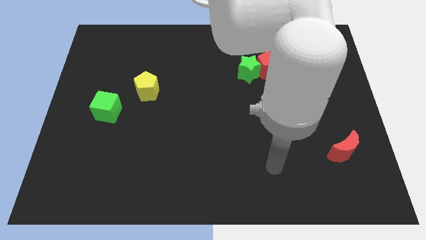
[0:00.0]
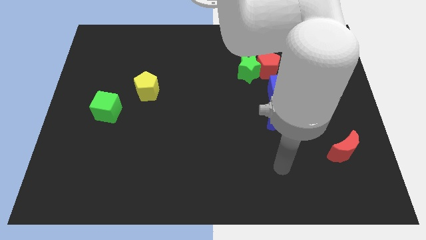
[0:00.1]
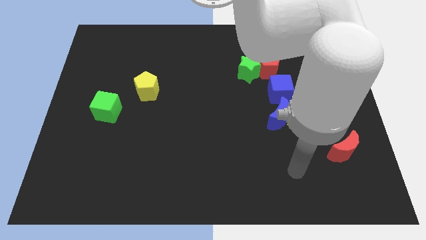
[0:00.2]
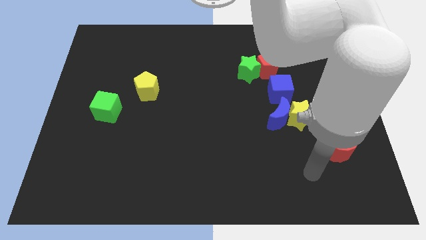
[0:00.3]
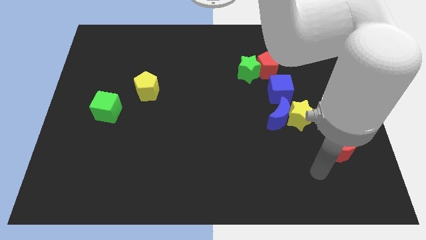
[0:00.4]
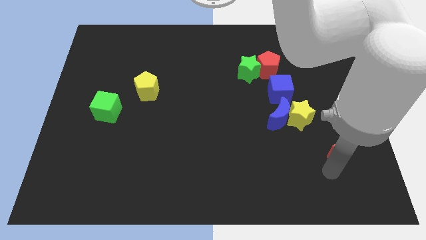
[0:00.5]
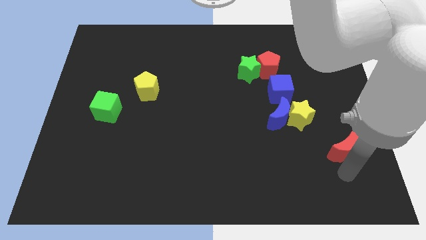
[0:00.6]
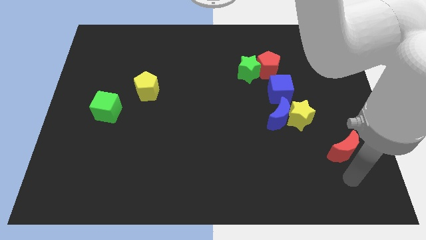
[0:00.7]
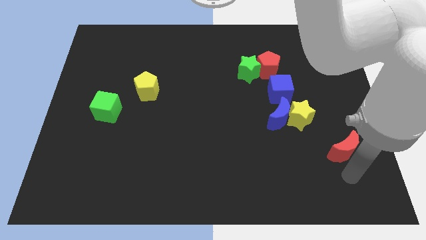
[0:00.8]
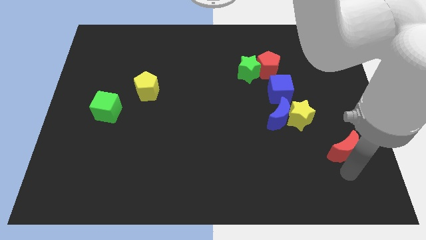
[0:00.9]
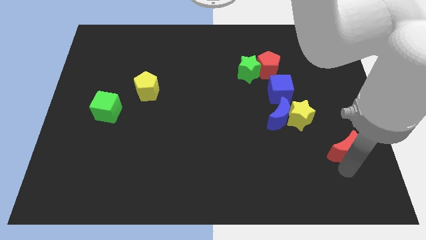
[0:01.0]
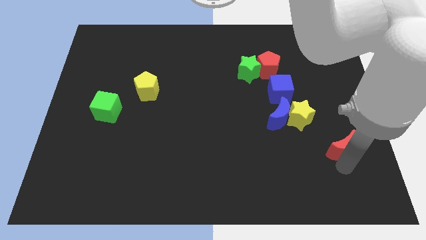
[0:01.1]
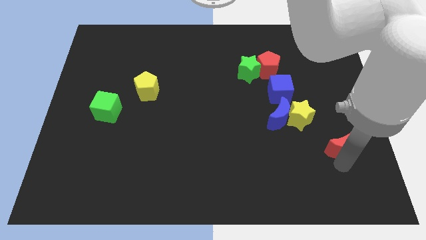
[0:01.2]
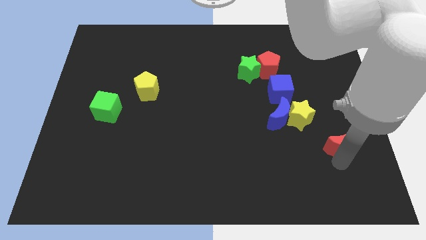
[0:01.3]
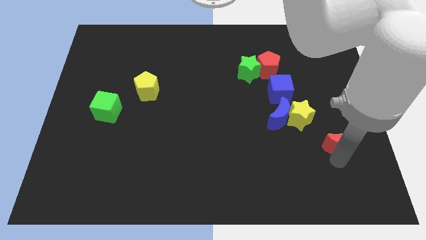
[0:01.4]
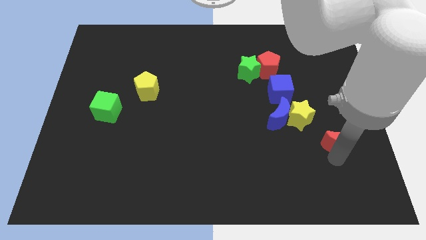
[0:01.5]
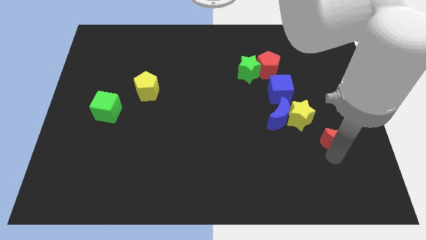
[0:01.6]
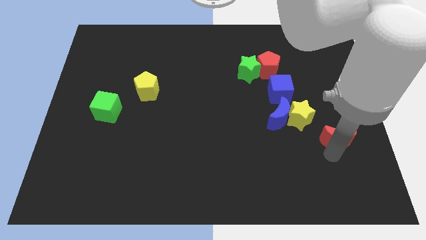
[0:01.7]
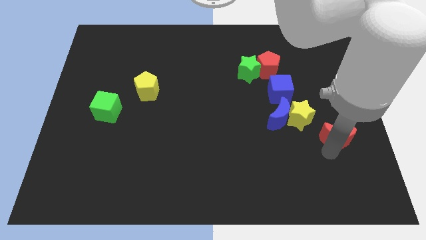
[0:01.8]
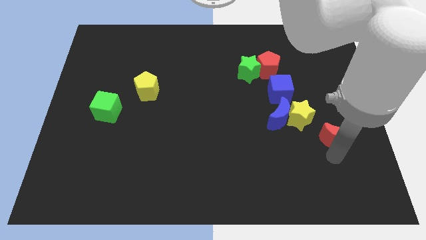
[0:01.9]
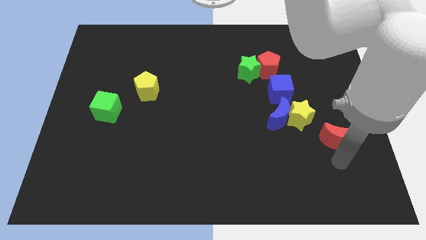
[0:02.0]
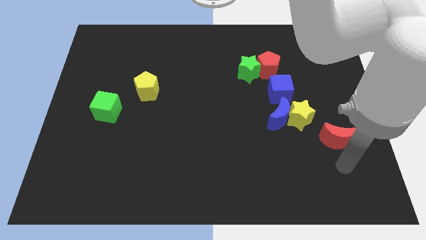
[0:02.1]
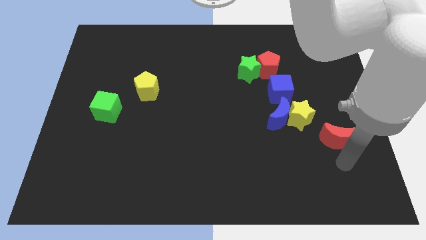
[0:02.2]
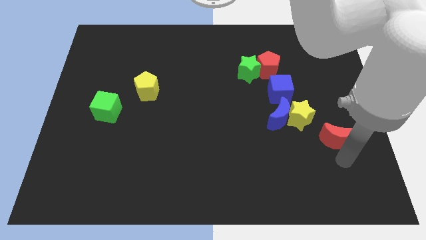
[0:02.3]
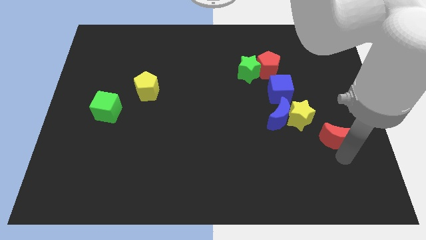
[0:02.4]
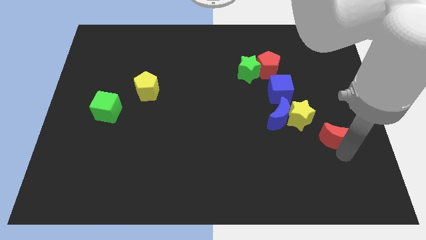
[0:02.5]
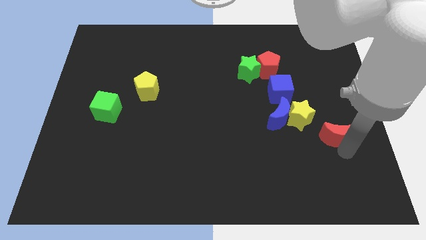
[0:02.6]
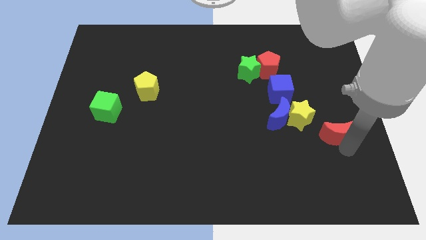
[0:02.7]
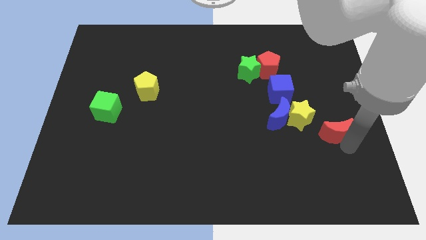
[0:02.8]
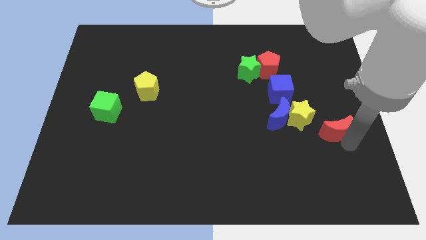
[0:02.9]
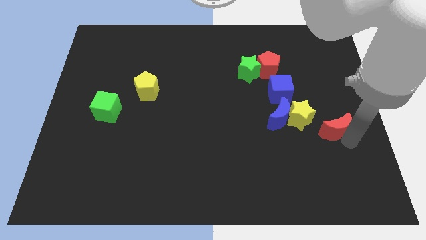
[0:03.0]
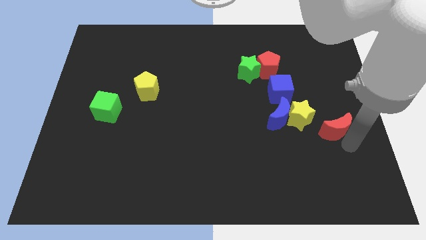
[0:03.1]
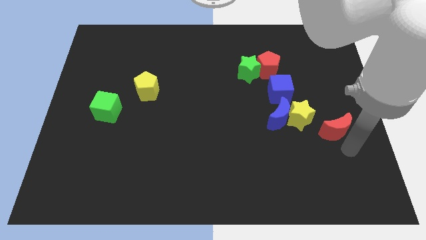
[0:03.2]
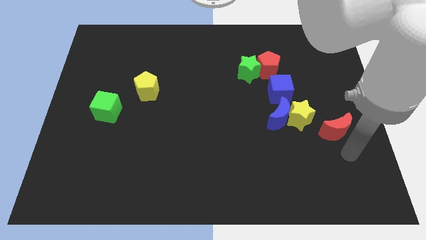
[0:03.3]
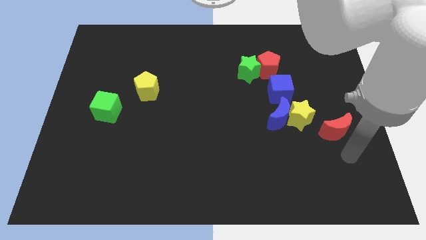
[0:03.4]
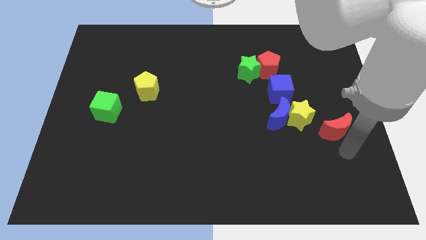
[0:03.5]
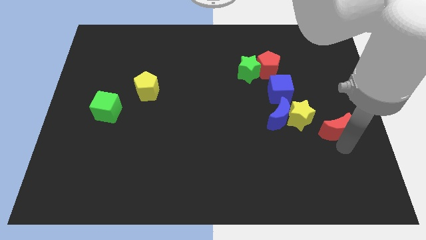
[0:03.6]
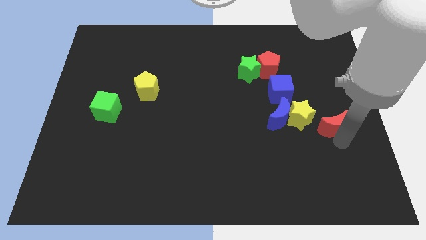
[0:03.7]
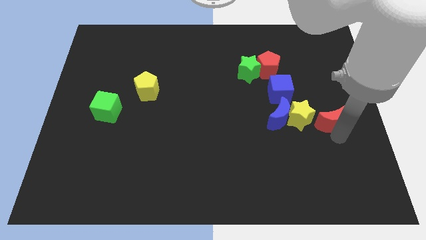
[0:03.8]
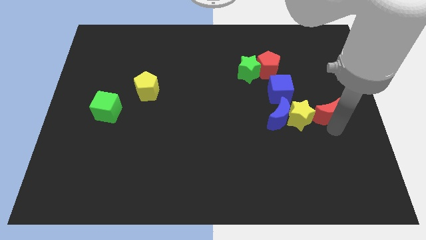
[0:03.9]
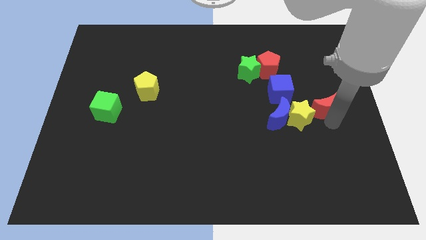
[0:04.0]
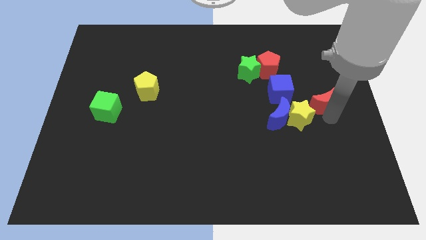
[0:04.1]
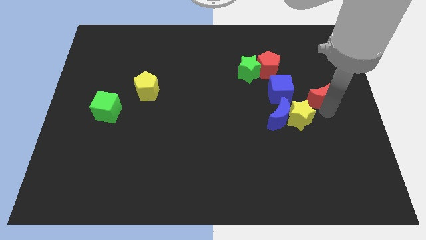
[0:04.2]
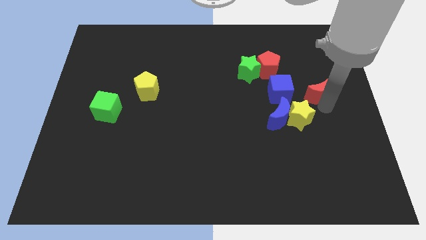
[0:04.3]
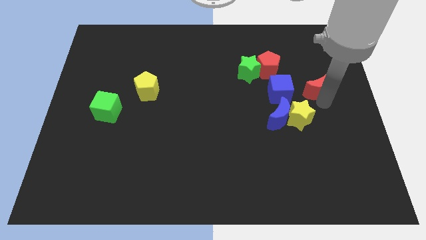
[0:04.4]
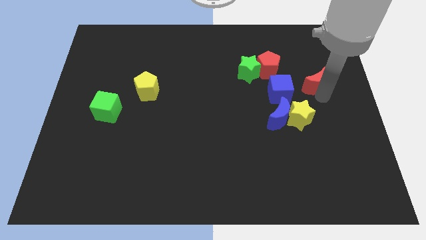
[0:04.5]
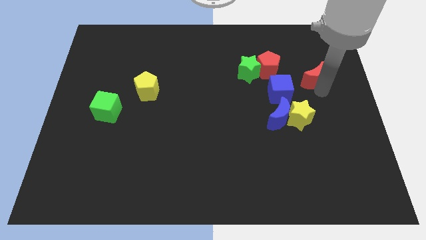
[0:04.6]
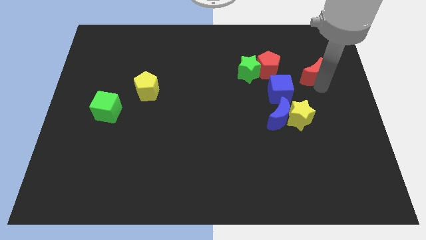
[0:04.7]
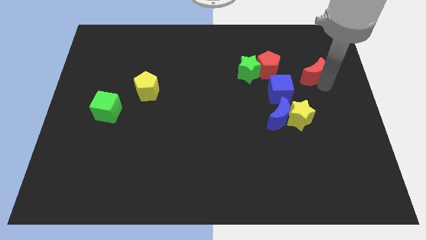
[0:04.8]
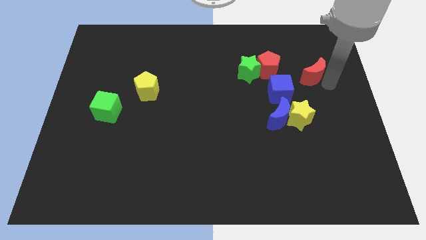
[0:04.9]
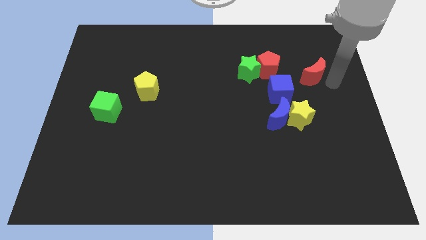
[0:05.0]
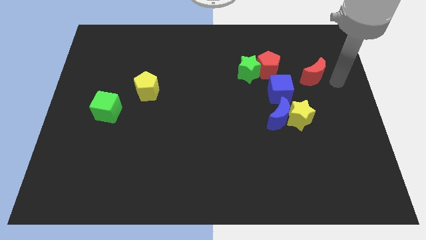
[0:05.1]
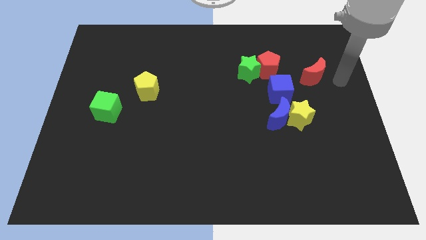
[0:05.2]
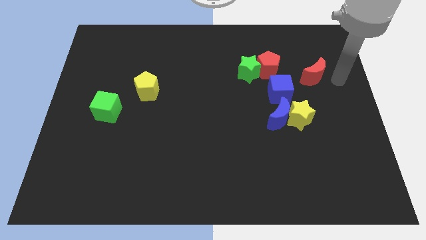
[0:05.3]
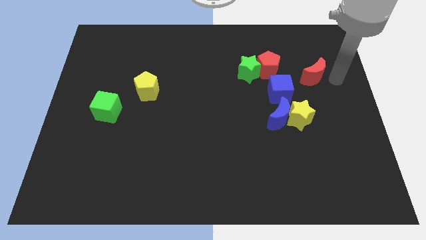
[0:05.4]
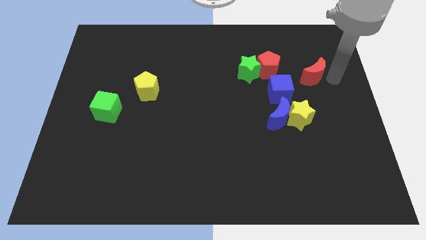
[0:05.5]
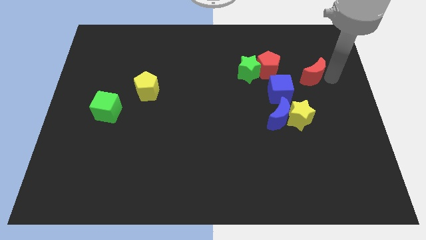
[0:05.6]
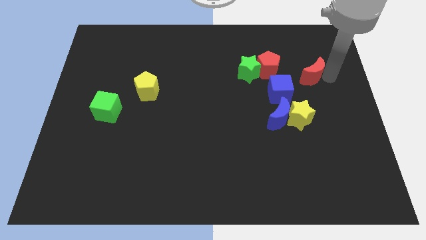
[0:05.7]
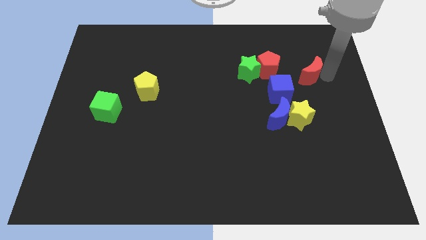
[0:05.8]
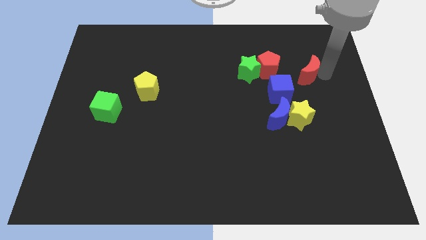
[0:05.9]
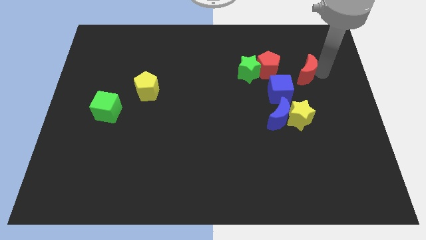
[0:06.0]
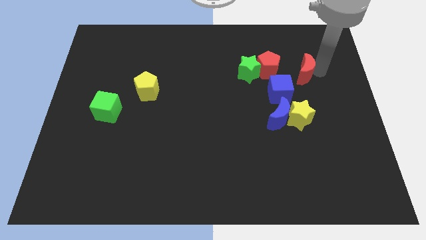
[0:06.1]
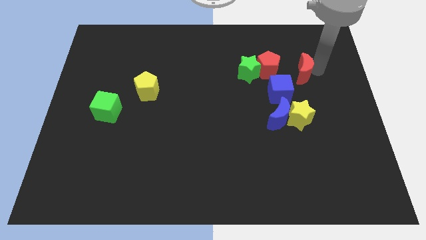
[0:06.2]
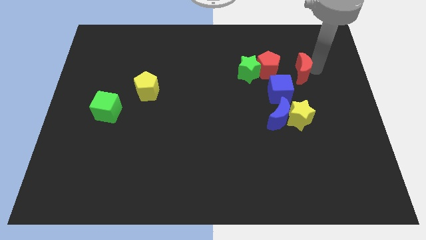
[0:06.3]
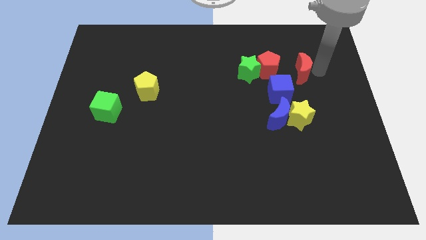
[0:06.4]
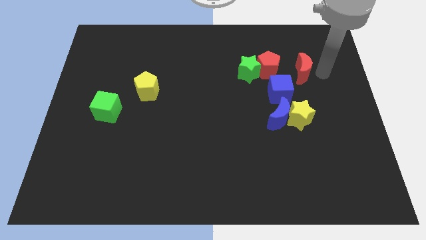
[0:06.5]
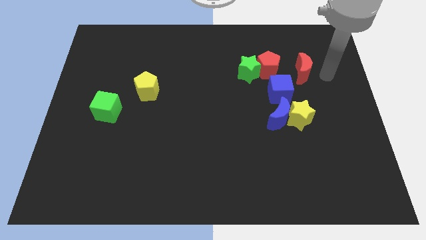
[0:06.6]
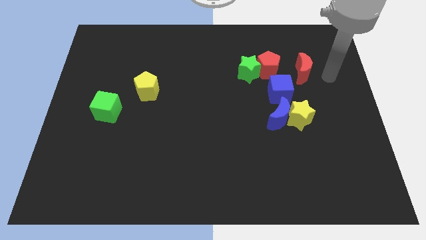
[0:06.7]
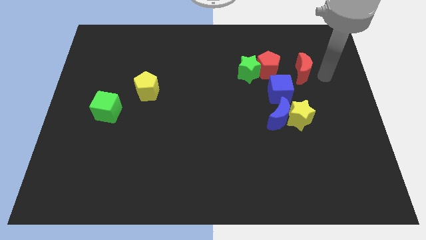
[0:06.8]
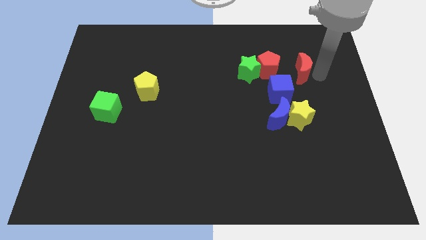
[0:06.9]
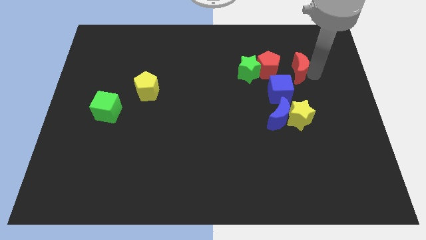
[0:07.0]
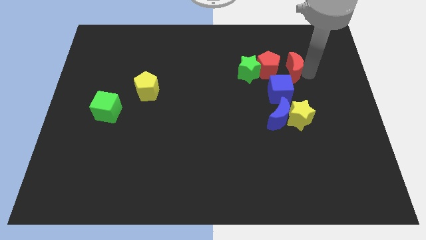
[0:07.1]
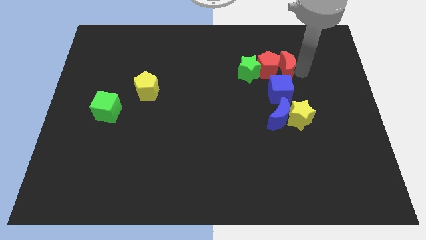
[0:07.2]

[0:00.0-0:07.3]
move the red moon towards the red pentagon
